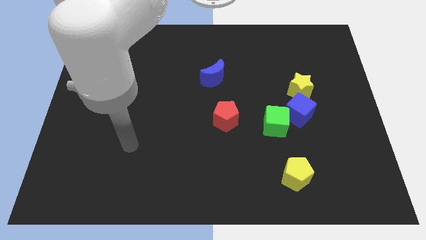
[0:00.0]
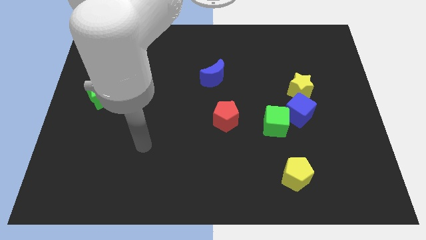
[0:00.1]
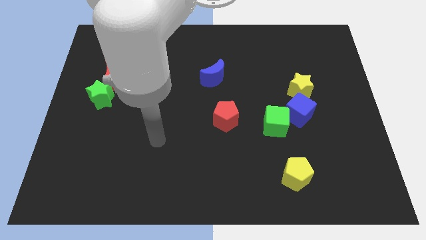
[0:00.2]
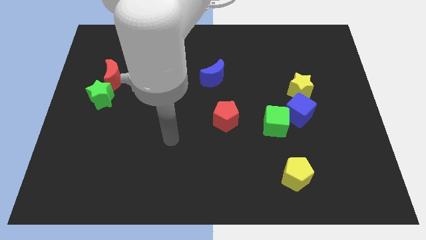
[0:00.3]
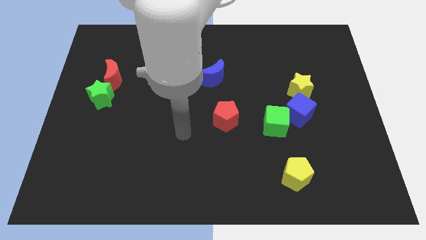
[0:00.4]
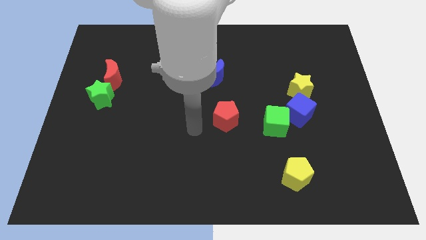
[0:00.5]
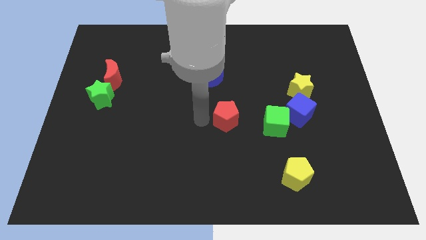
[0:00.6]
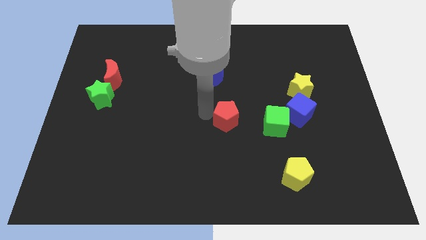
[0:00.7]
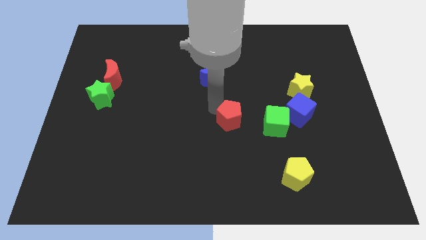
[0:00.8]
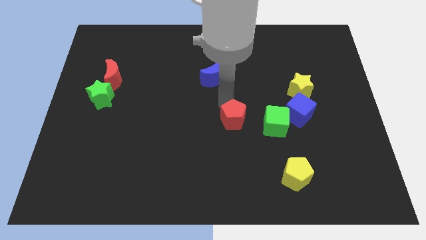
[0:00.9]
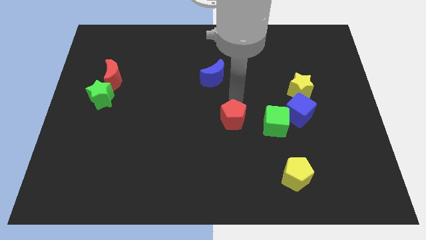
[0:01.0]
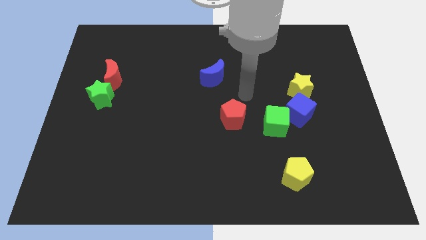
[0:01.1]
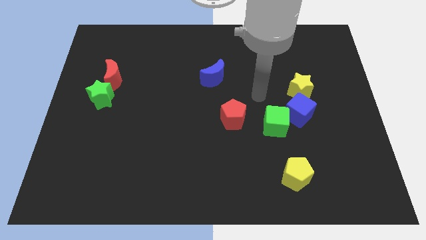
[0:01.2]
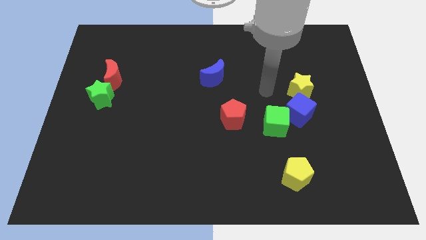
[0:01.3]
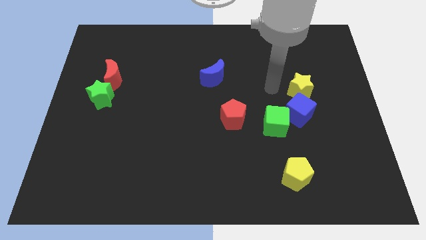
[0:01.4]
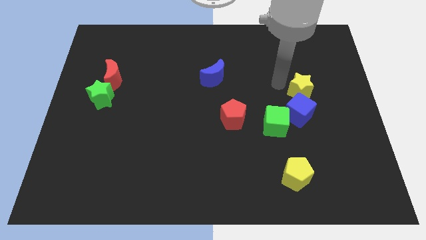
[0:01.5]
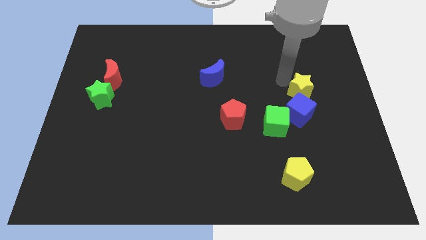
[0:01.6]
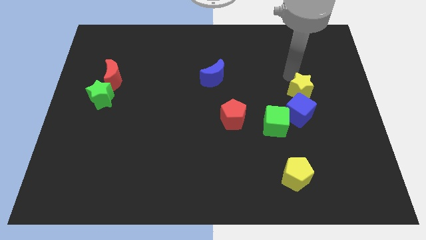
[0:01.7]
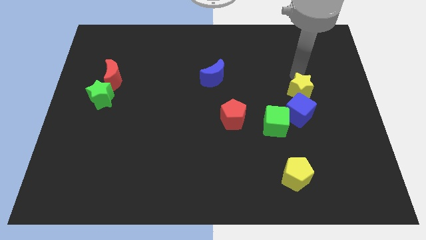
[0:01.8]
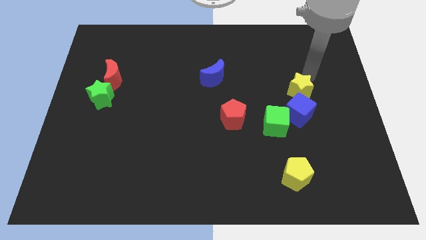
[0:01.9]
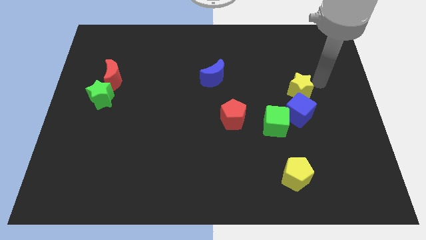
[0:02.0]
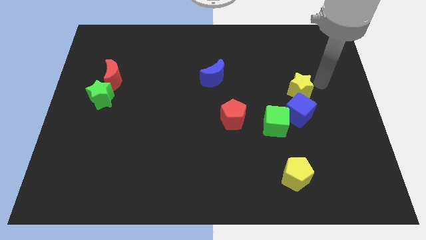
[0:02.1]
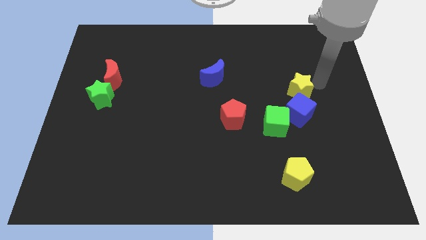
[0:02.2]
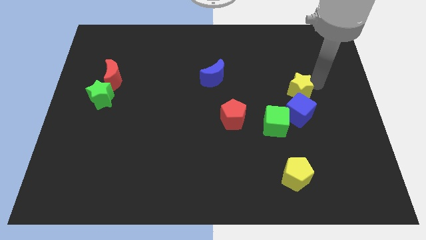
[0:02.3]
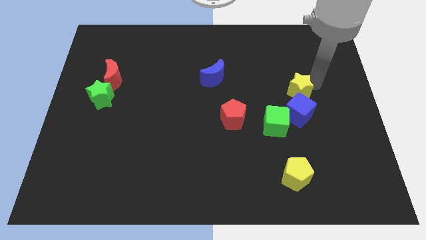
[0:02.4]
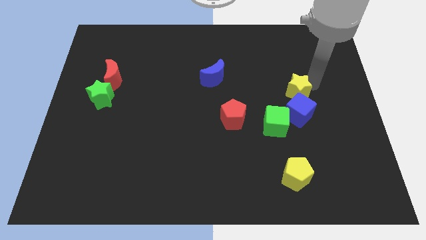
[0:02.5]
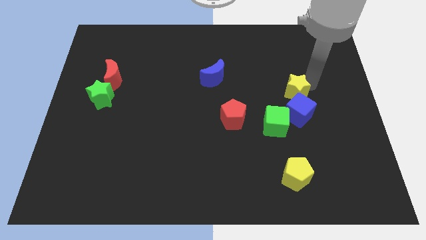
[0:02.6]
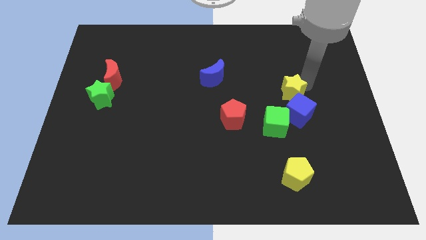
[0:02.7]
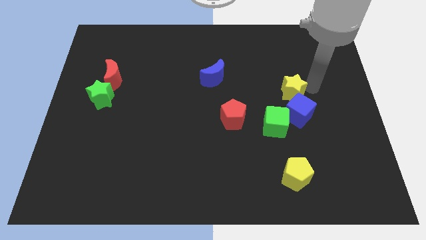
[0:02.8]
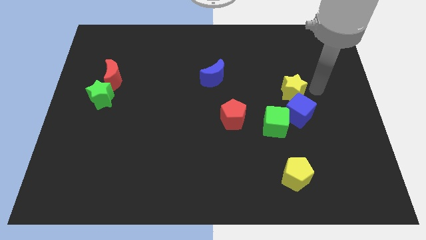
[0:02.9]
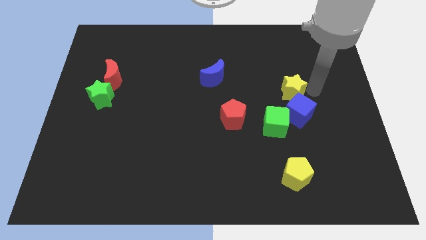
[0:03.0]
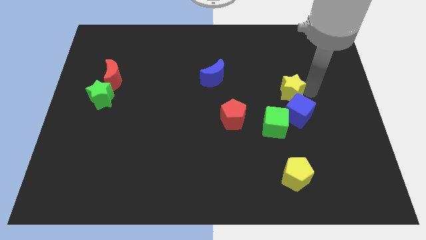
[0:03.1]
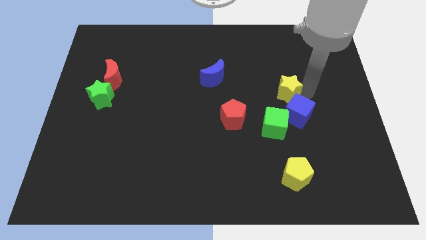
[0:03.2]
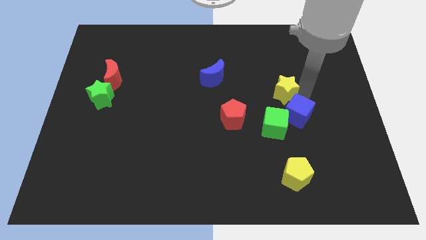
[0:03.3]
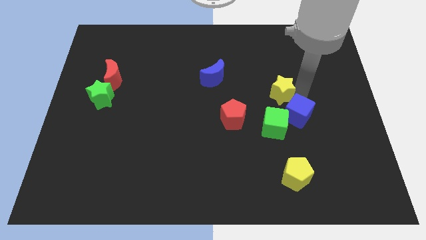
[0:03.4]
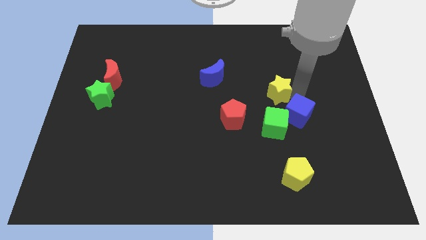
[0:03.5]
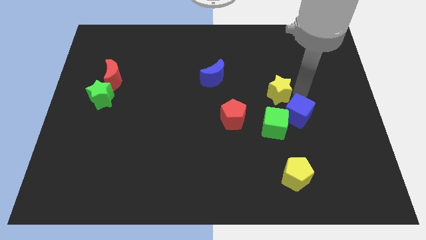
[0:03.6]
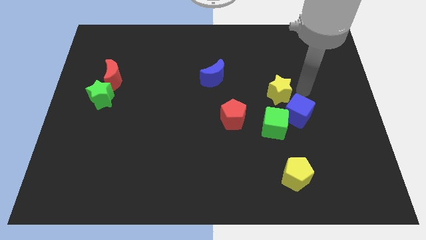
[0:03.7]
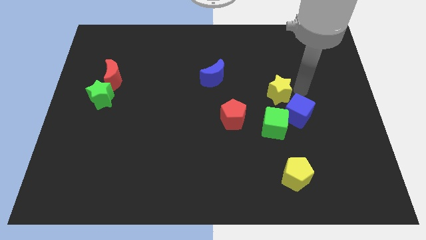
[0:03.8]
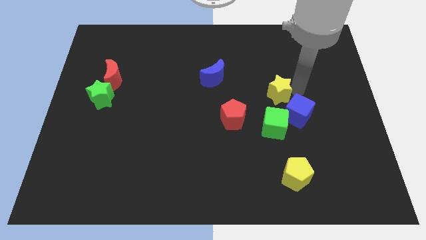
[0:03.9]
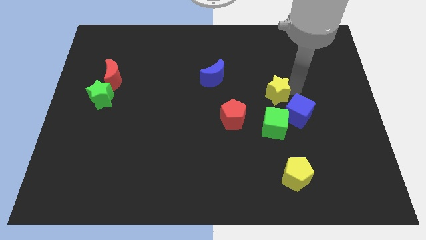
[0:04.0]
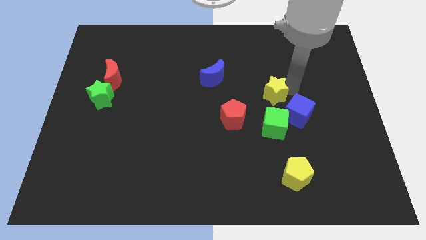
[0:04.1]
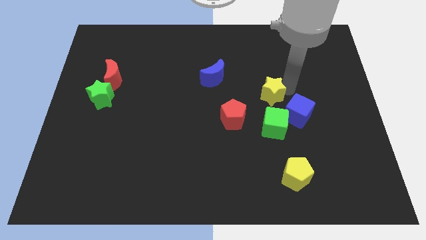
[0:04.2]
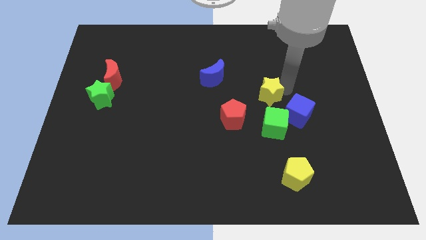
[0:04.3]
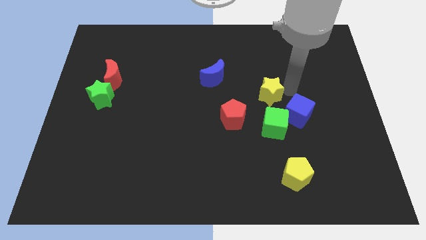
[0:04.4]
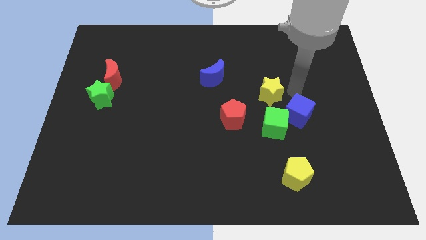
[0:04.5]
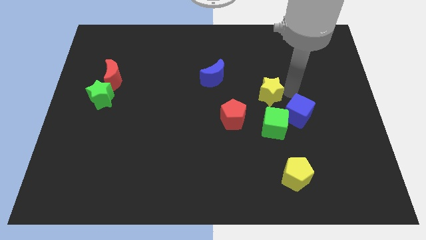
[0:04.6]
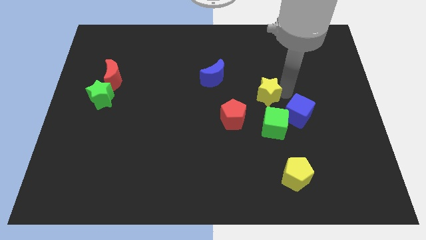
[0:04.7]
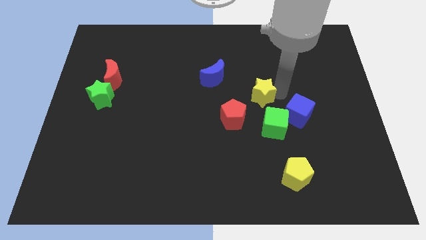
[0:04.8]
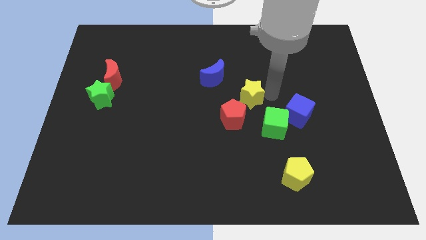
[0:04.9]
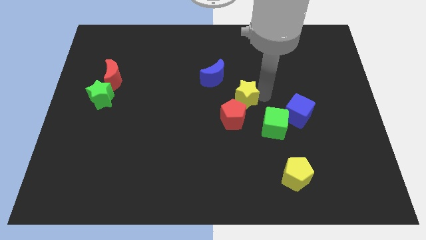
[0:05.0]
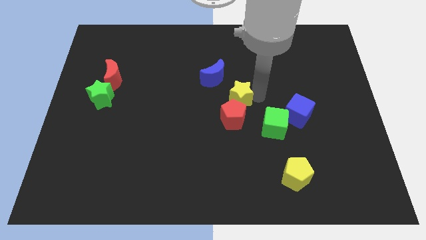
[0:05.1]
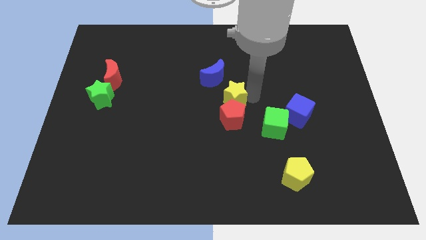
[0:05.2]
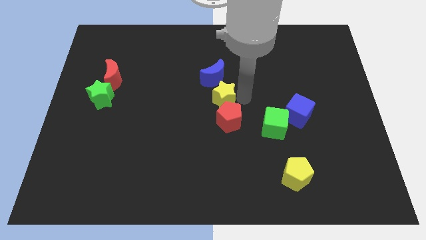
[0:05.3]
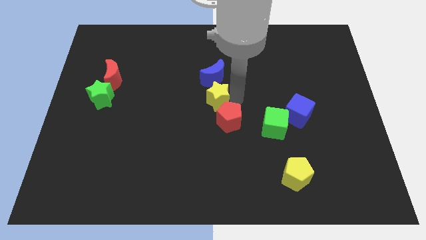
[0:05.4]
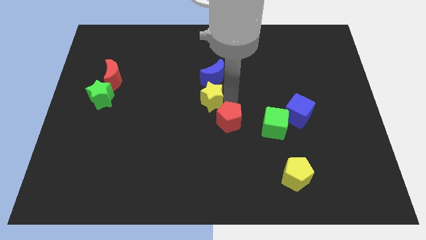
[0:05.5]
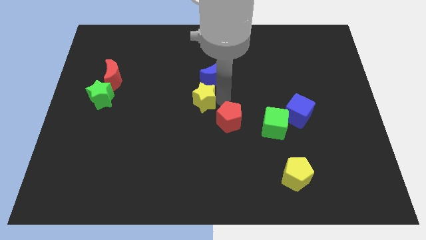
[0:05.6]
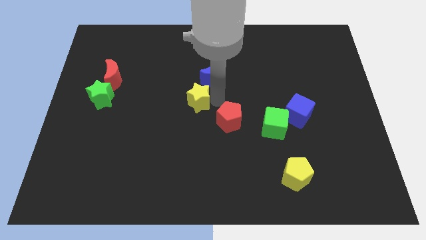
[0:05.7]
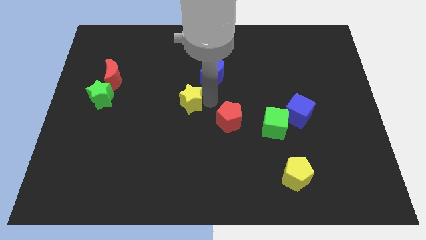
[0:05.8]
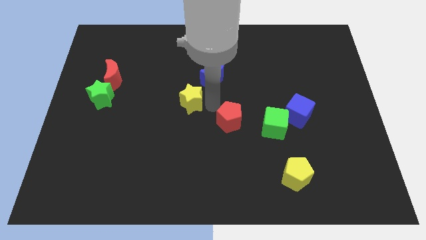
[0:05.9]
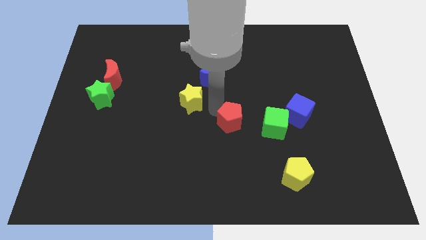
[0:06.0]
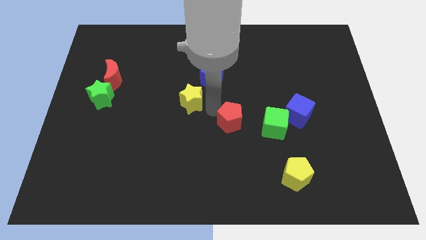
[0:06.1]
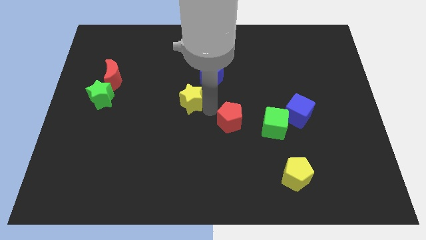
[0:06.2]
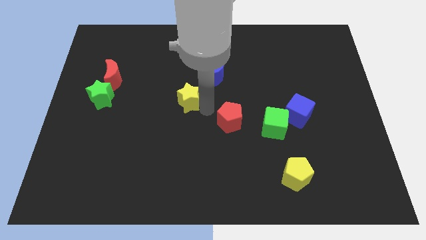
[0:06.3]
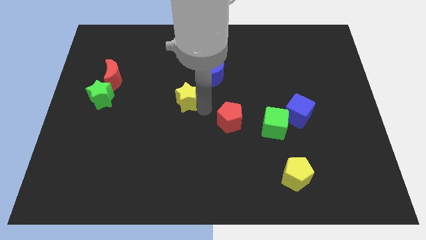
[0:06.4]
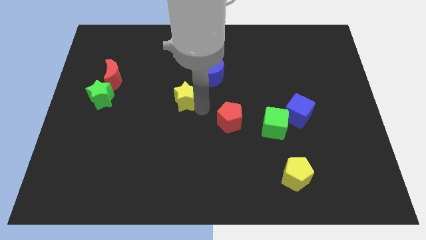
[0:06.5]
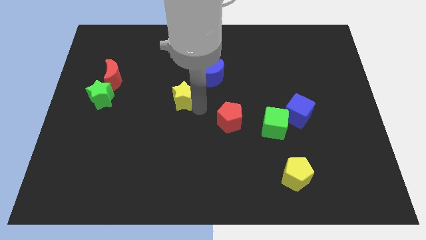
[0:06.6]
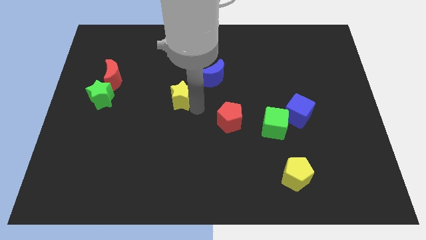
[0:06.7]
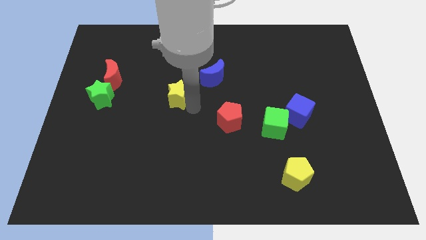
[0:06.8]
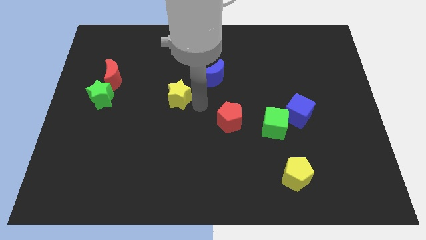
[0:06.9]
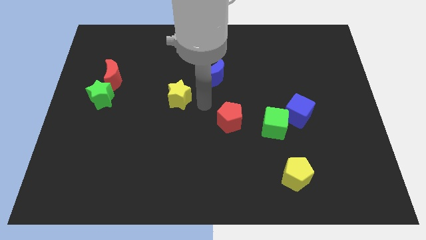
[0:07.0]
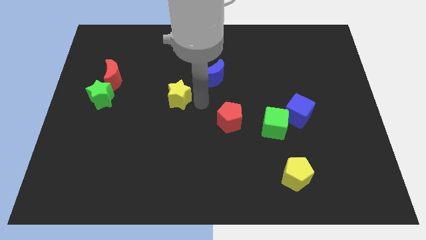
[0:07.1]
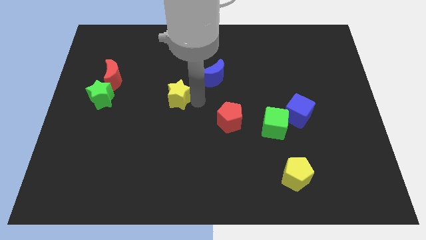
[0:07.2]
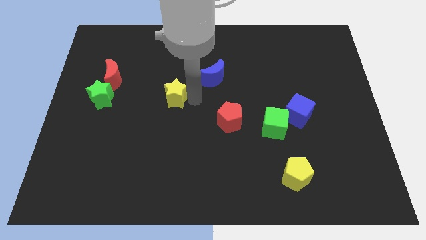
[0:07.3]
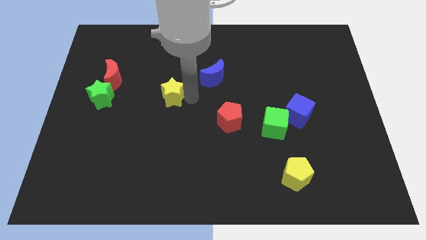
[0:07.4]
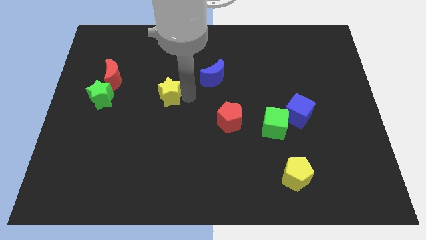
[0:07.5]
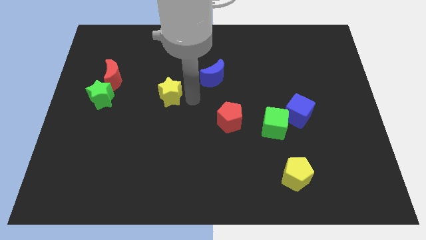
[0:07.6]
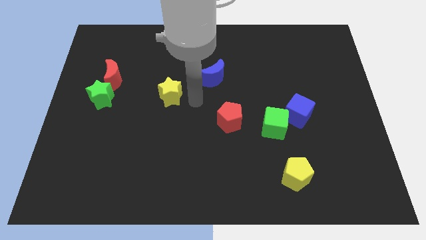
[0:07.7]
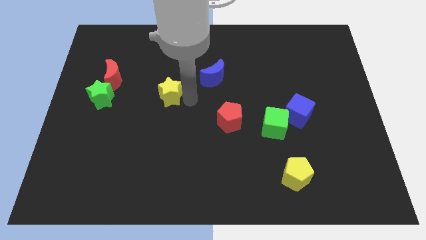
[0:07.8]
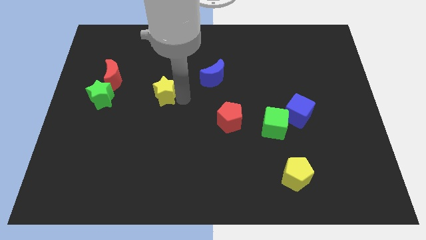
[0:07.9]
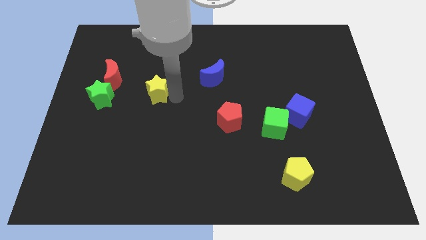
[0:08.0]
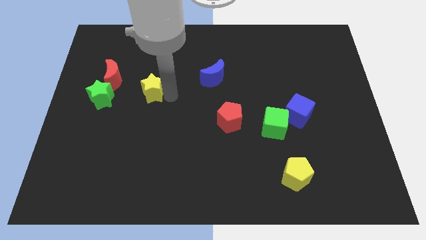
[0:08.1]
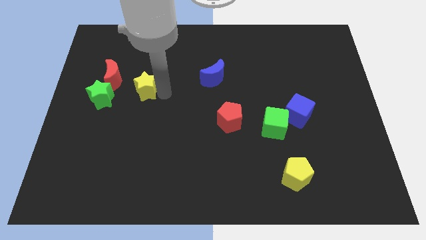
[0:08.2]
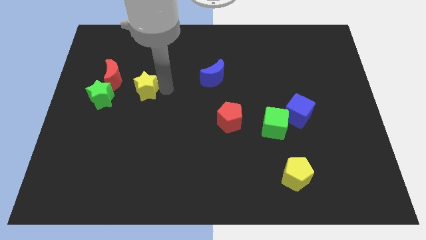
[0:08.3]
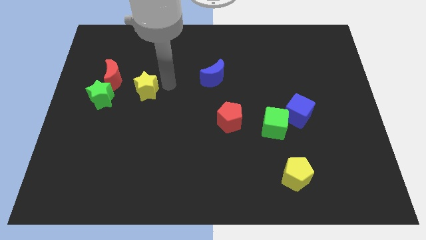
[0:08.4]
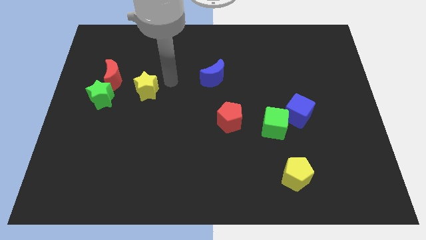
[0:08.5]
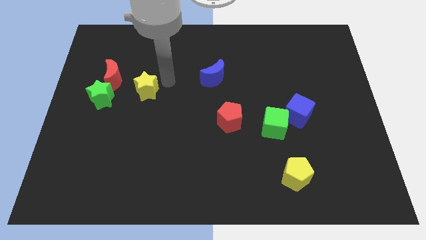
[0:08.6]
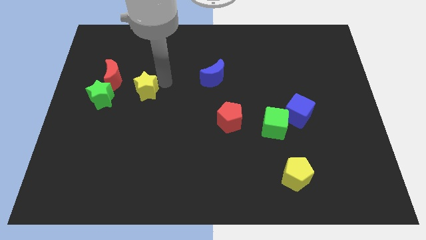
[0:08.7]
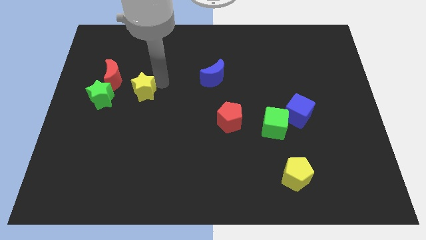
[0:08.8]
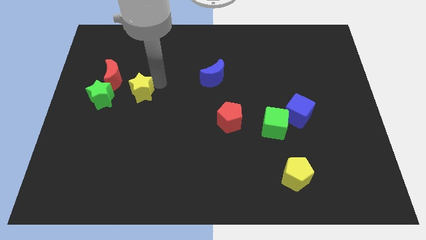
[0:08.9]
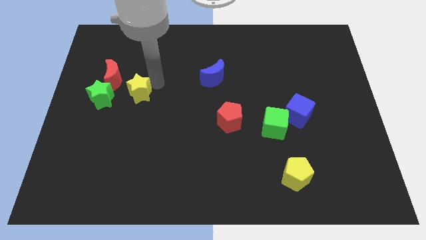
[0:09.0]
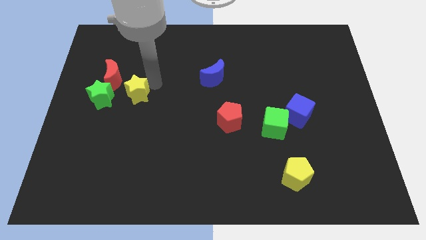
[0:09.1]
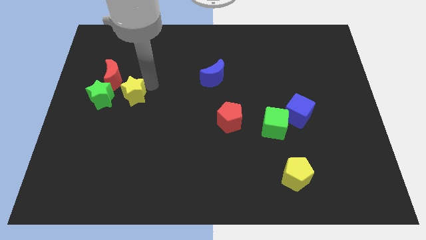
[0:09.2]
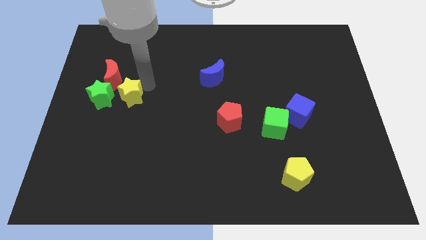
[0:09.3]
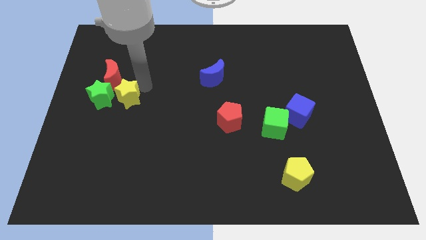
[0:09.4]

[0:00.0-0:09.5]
move the yellow star next to the green star
